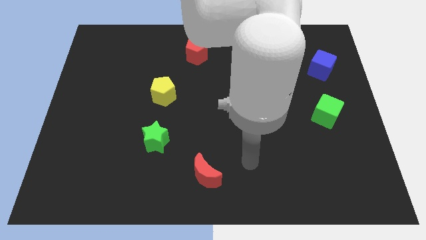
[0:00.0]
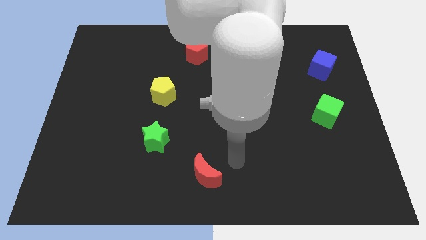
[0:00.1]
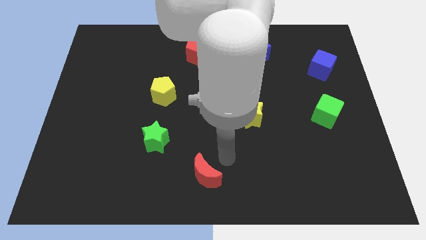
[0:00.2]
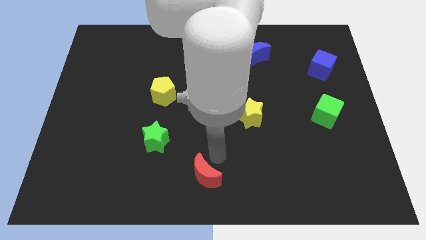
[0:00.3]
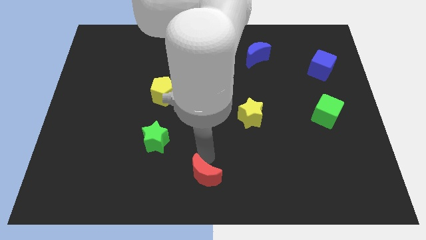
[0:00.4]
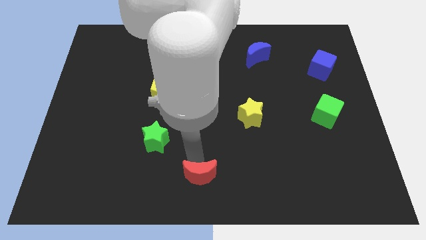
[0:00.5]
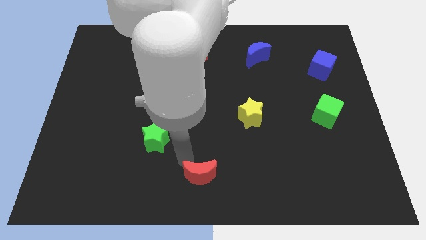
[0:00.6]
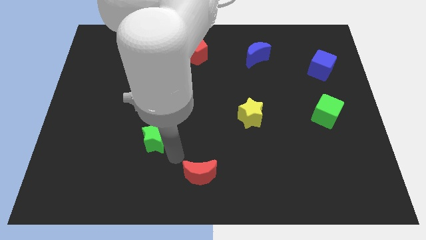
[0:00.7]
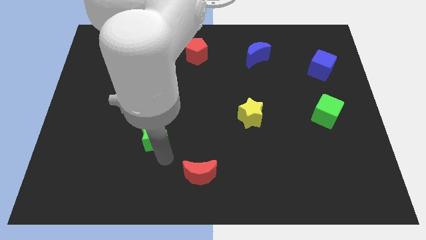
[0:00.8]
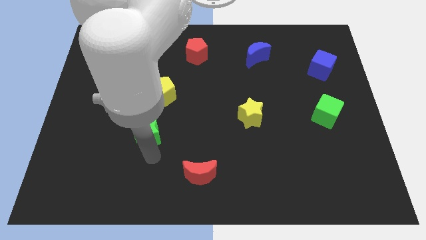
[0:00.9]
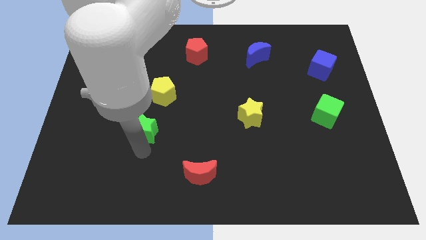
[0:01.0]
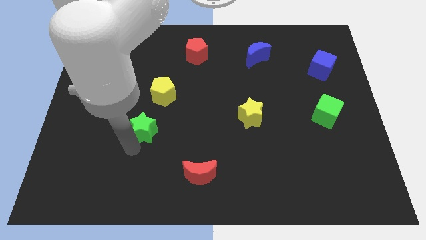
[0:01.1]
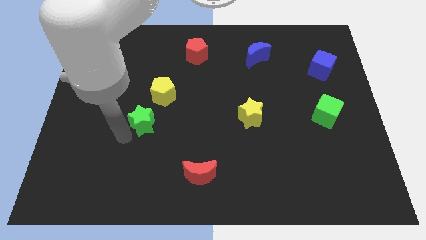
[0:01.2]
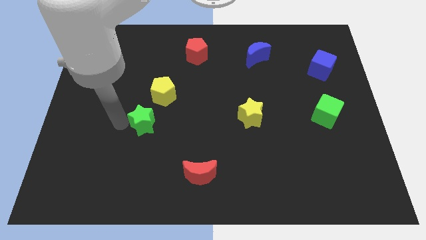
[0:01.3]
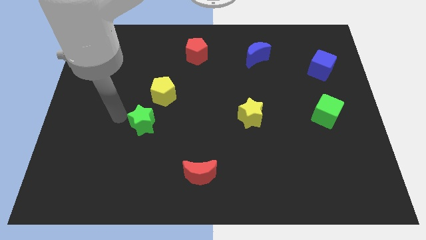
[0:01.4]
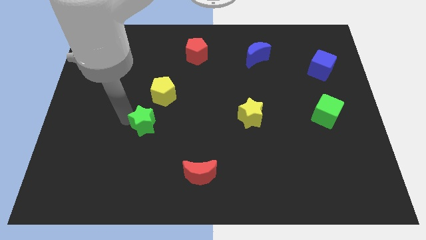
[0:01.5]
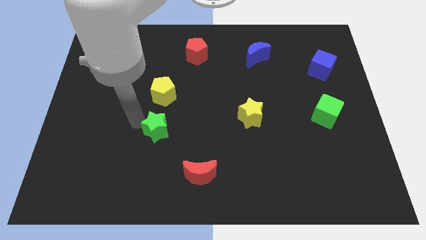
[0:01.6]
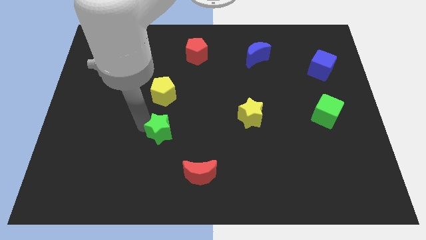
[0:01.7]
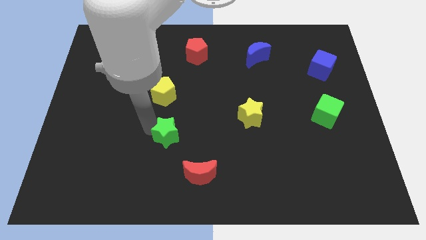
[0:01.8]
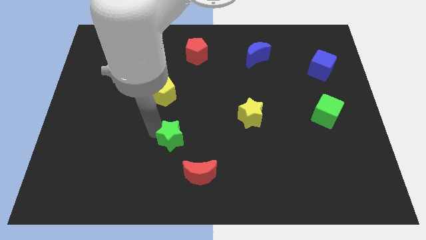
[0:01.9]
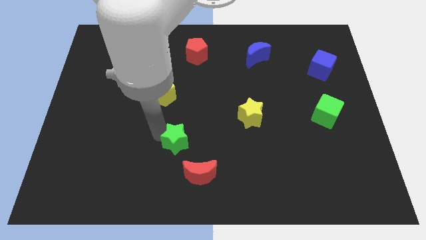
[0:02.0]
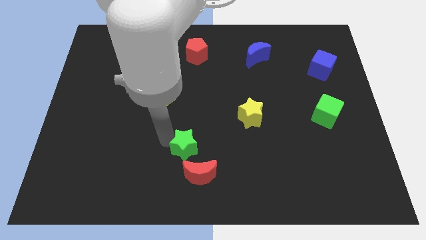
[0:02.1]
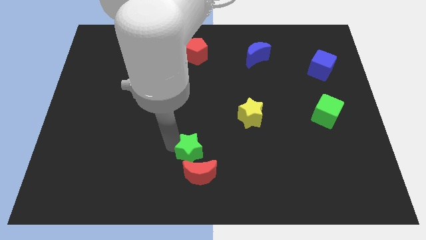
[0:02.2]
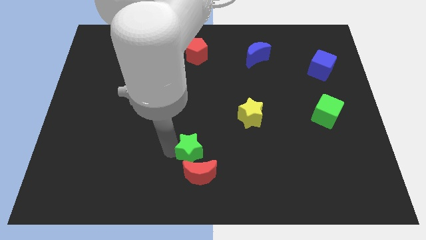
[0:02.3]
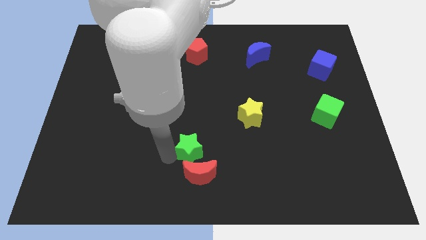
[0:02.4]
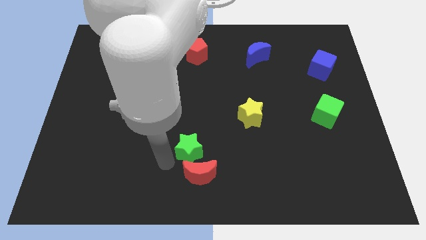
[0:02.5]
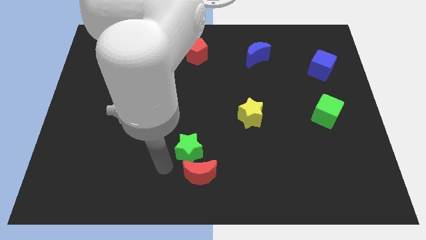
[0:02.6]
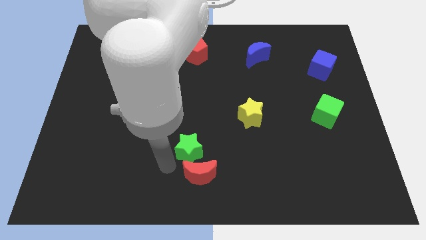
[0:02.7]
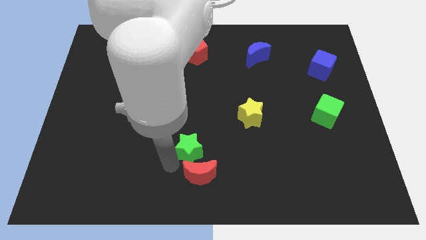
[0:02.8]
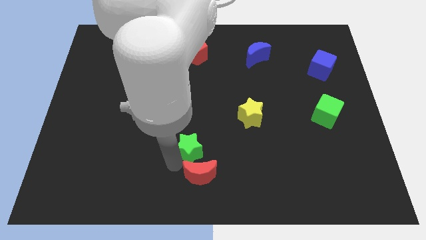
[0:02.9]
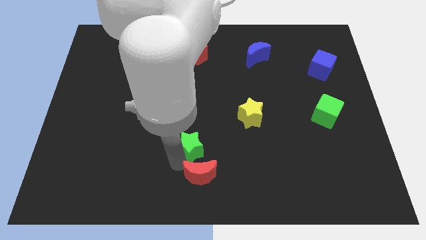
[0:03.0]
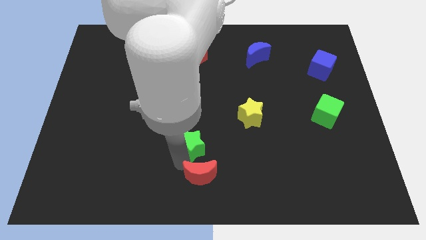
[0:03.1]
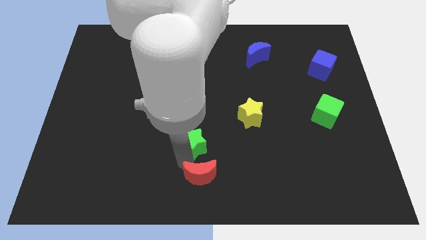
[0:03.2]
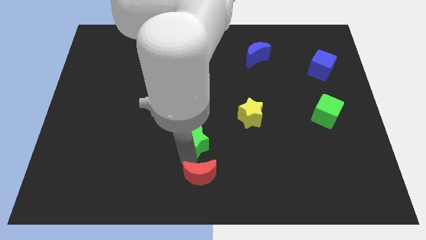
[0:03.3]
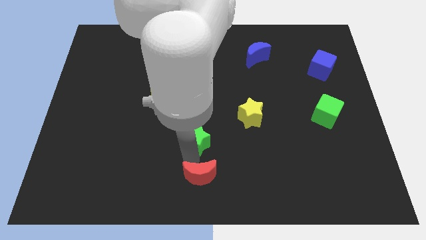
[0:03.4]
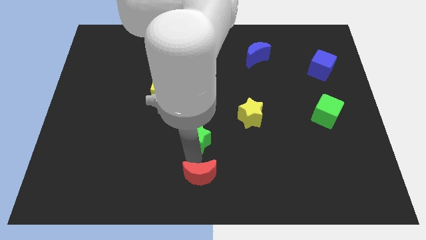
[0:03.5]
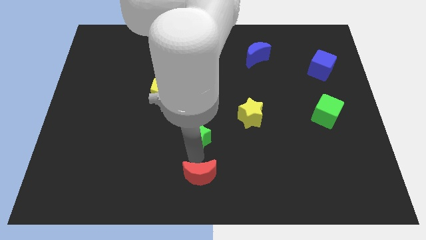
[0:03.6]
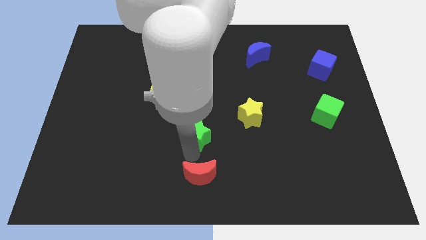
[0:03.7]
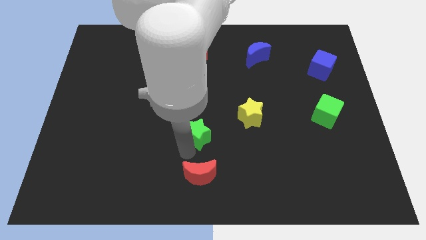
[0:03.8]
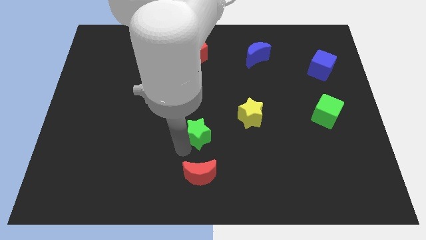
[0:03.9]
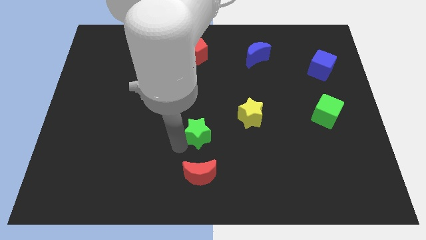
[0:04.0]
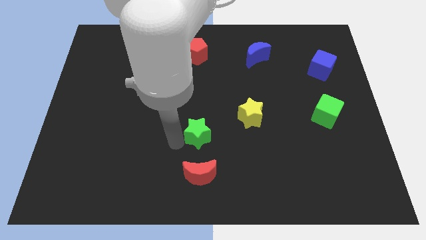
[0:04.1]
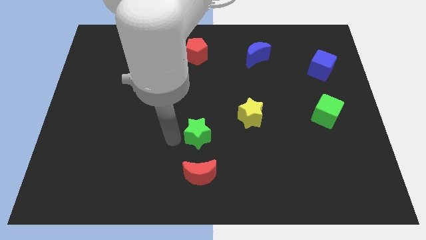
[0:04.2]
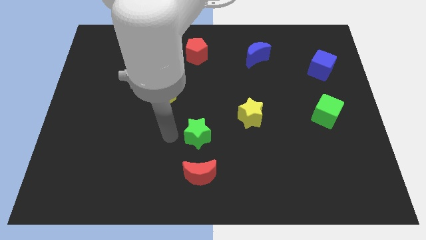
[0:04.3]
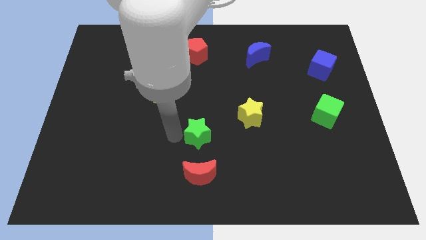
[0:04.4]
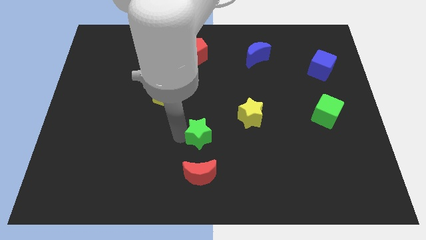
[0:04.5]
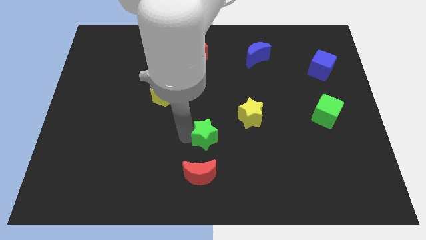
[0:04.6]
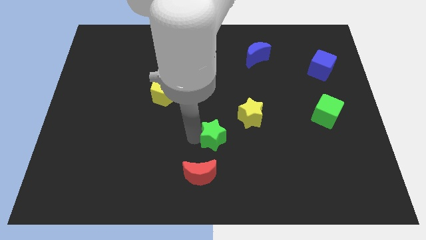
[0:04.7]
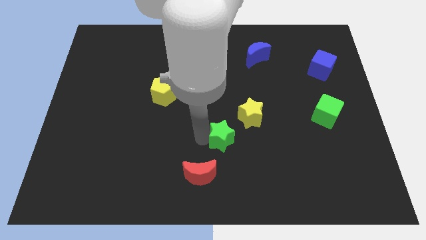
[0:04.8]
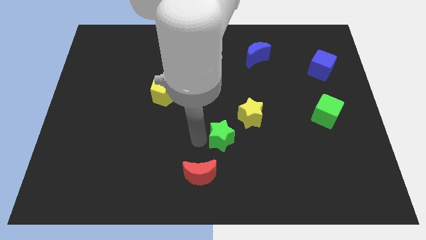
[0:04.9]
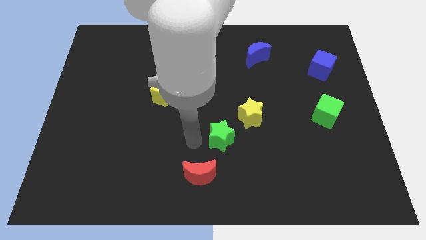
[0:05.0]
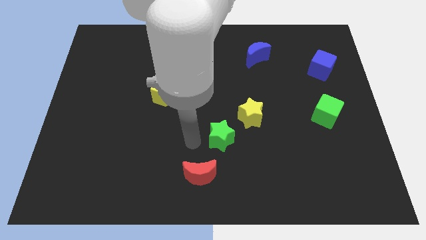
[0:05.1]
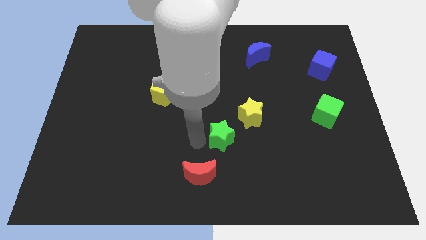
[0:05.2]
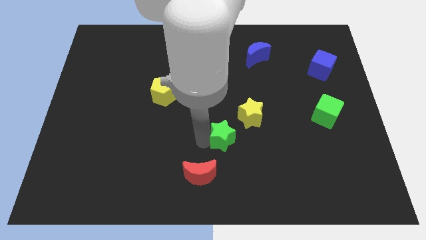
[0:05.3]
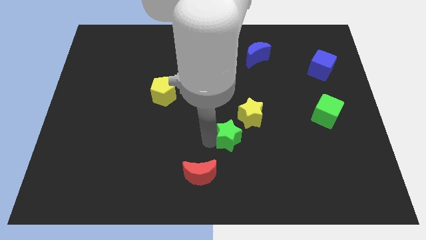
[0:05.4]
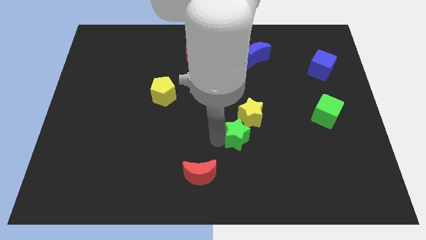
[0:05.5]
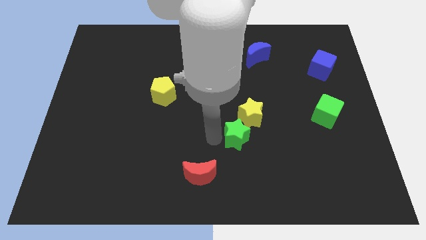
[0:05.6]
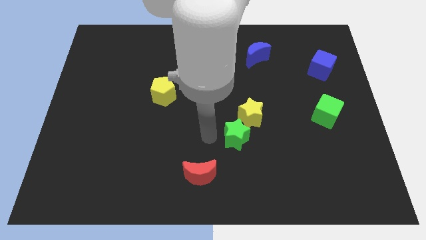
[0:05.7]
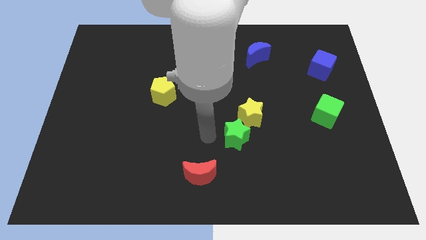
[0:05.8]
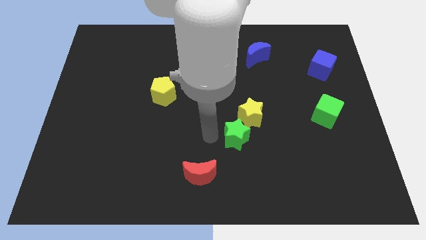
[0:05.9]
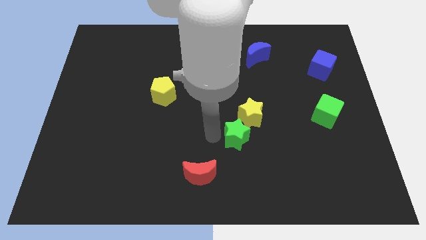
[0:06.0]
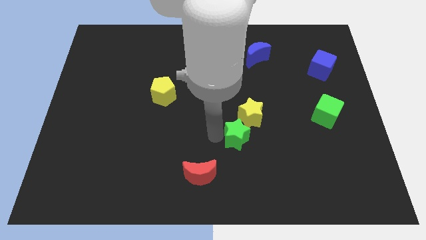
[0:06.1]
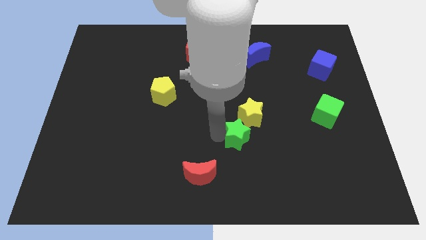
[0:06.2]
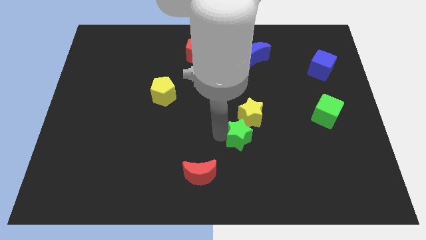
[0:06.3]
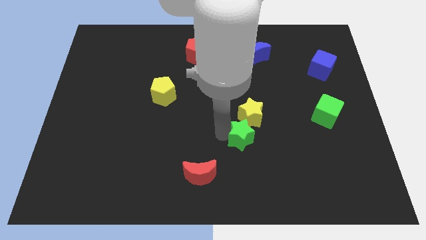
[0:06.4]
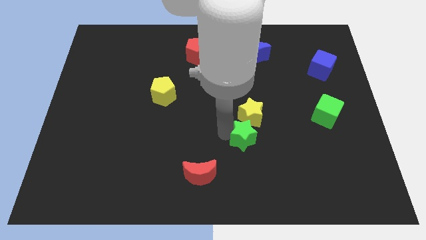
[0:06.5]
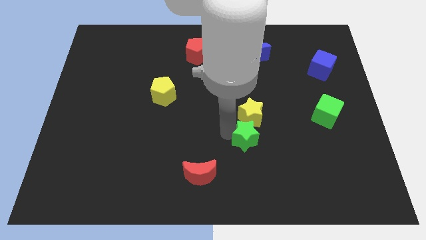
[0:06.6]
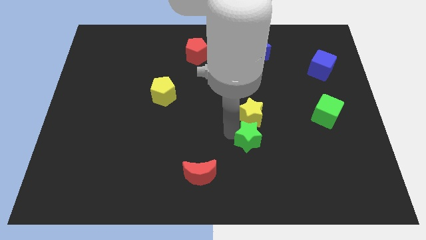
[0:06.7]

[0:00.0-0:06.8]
move the green star to the bottom right of the yellow star
